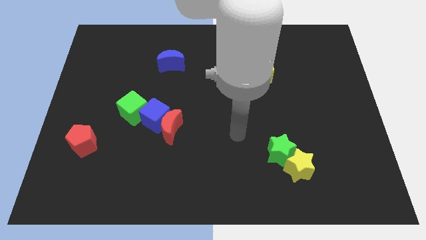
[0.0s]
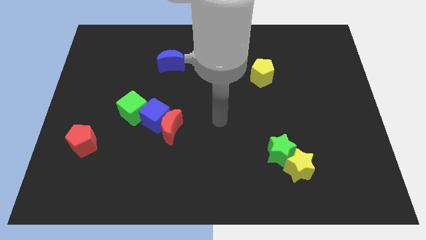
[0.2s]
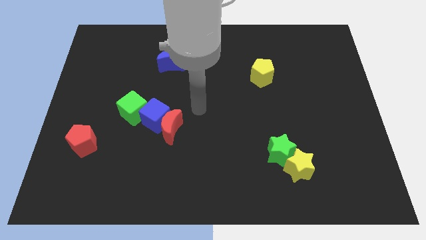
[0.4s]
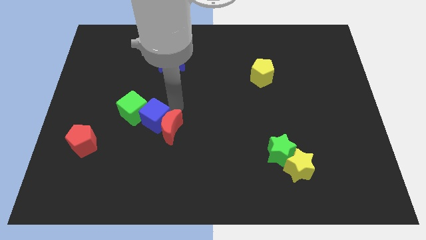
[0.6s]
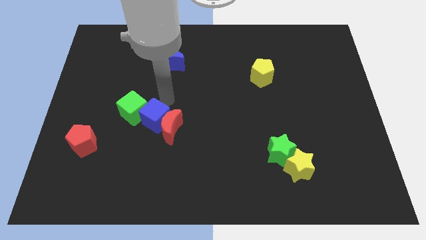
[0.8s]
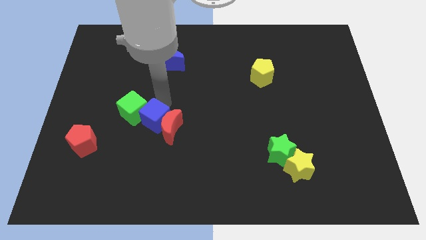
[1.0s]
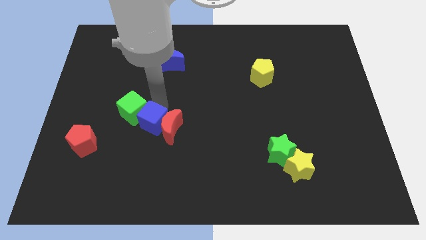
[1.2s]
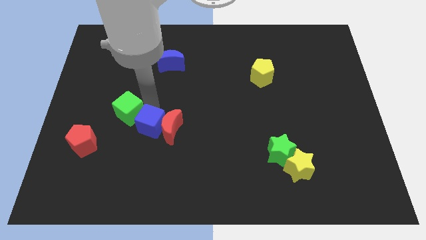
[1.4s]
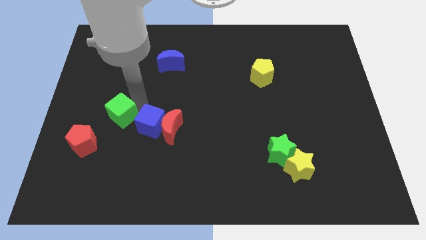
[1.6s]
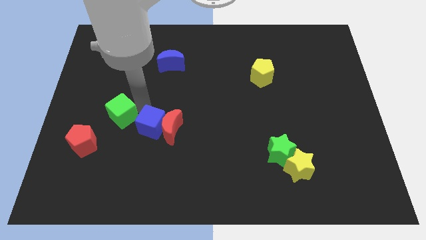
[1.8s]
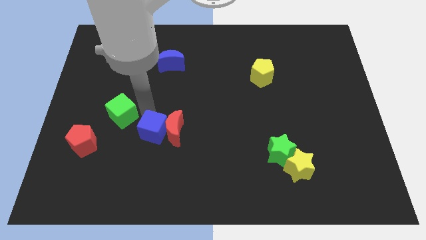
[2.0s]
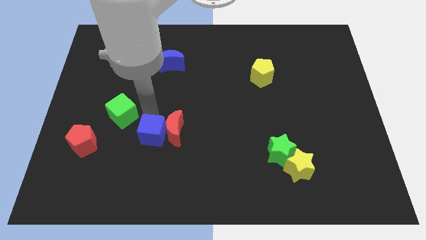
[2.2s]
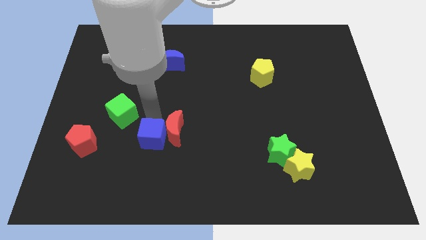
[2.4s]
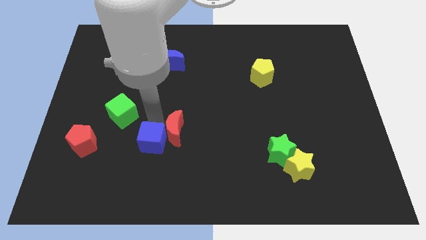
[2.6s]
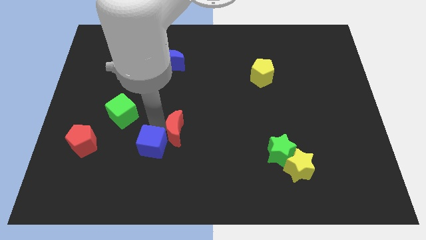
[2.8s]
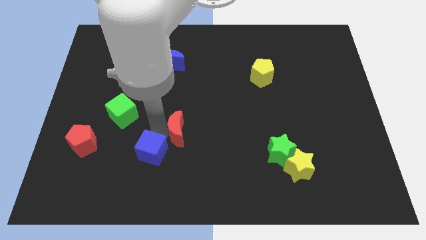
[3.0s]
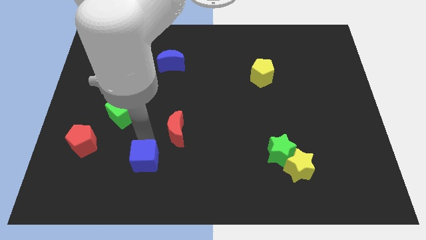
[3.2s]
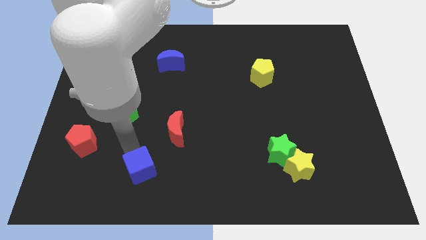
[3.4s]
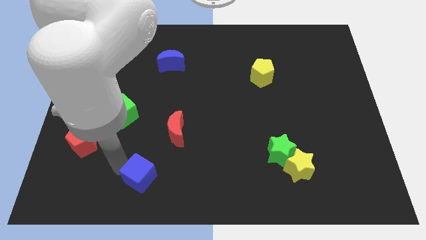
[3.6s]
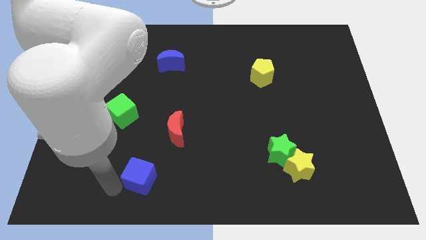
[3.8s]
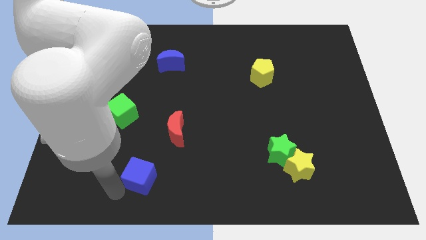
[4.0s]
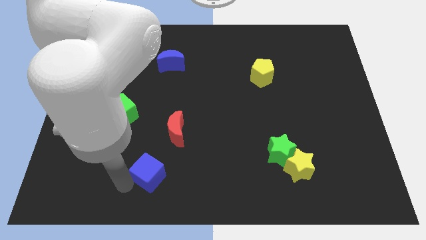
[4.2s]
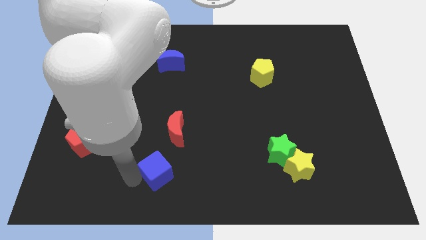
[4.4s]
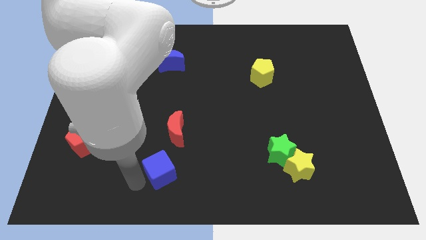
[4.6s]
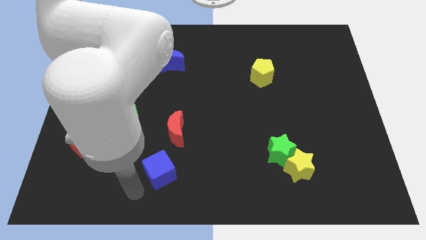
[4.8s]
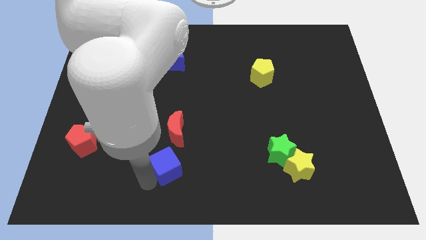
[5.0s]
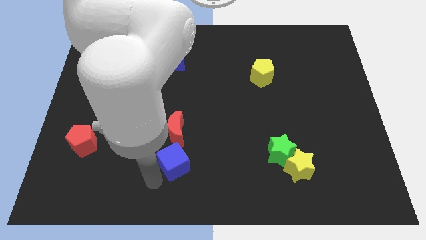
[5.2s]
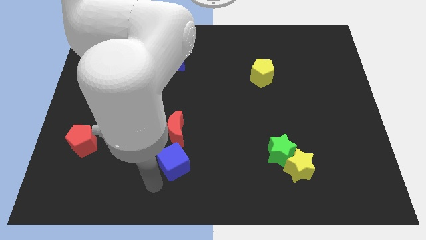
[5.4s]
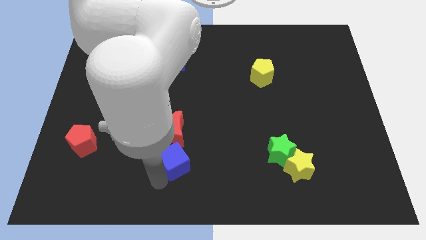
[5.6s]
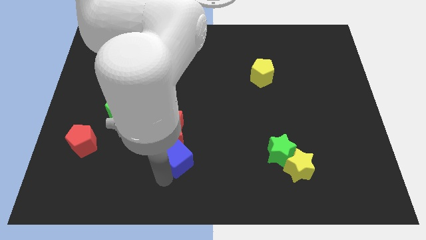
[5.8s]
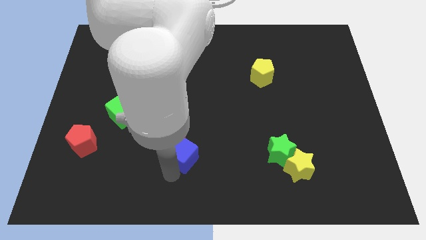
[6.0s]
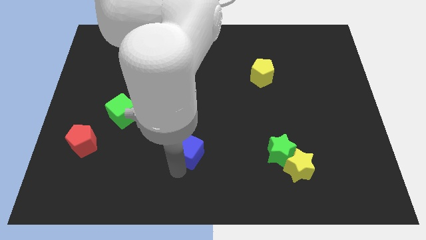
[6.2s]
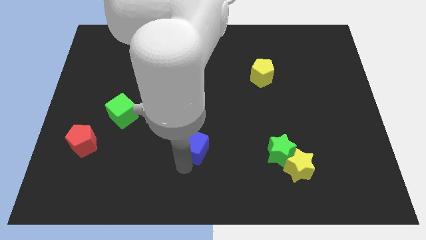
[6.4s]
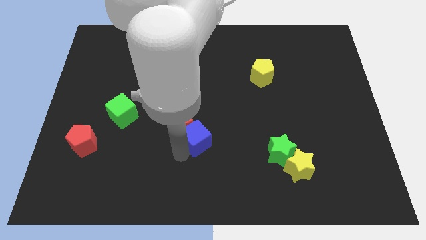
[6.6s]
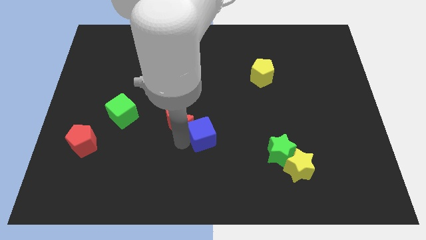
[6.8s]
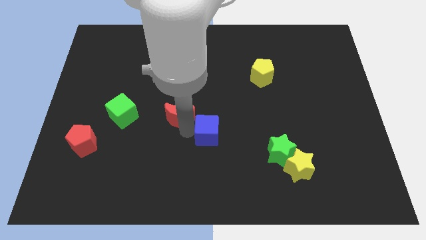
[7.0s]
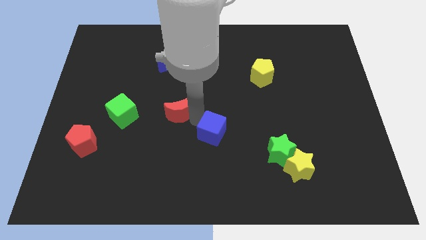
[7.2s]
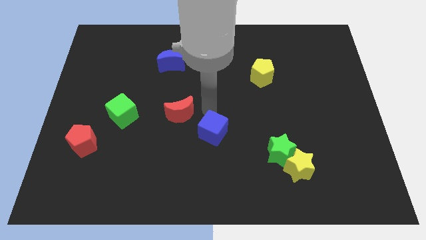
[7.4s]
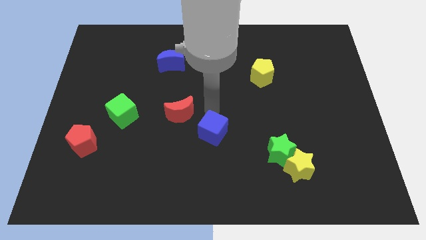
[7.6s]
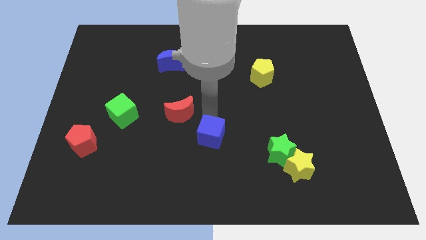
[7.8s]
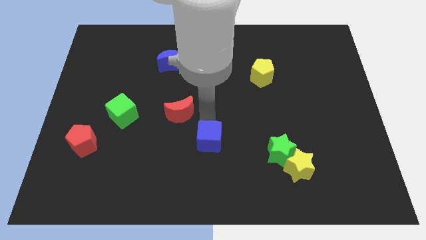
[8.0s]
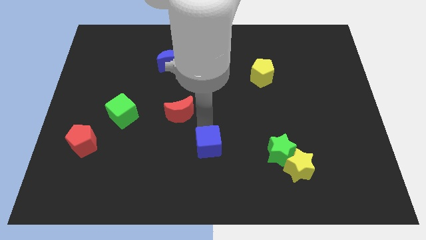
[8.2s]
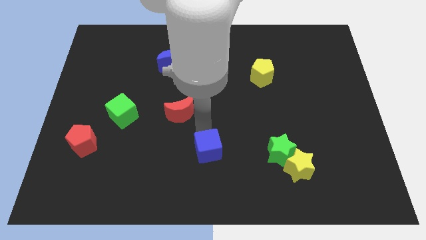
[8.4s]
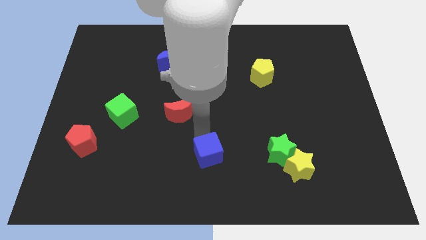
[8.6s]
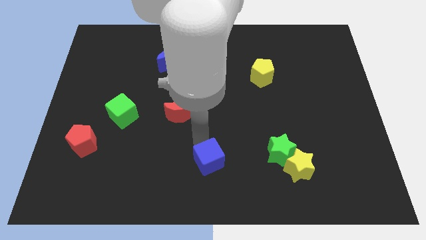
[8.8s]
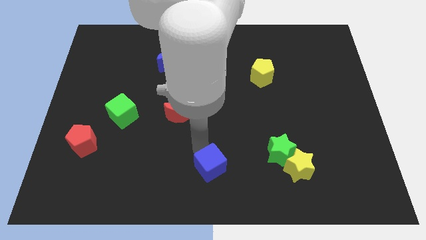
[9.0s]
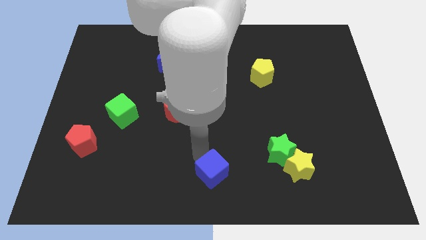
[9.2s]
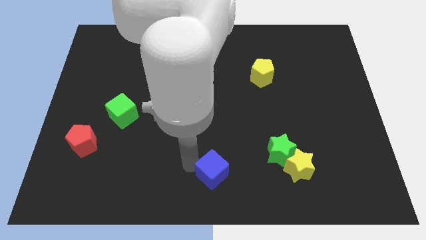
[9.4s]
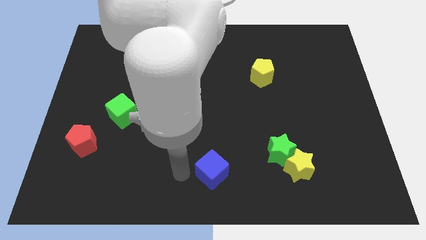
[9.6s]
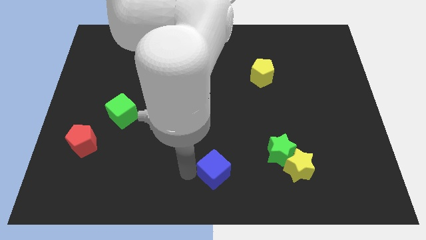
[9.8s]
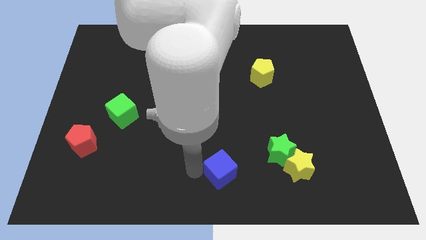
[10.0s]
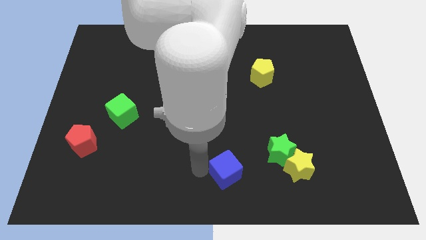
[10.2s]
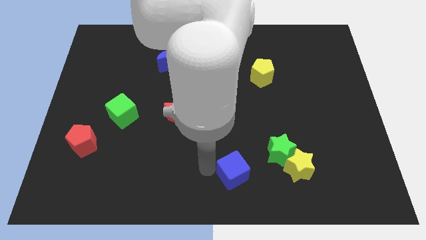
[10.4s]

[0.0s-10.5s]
push the blue cube to the bottom left of the green star

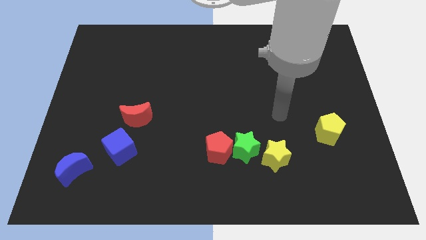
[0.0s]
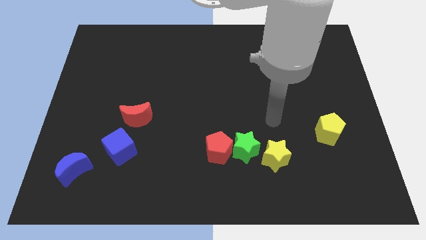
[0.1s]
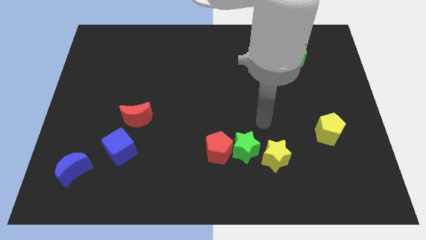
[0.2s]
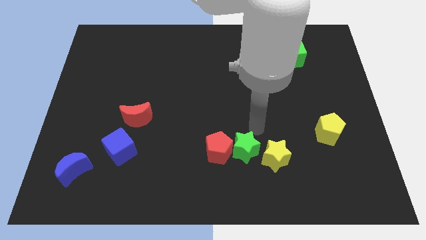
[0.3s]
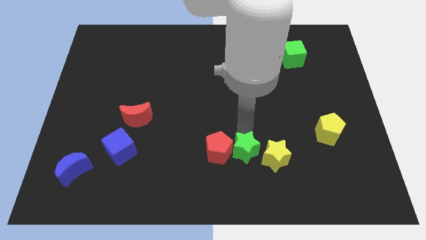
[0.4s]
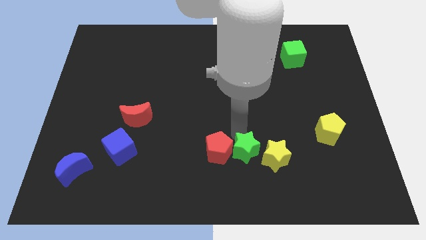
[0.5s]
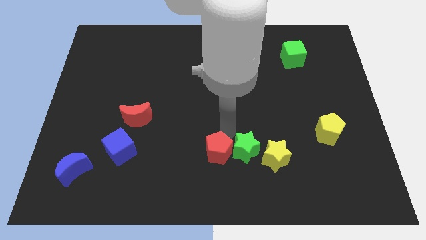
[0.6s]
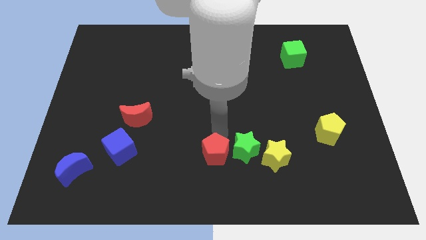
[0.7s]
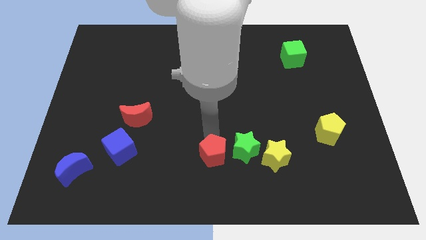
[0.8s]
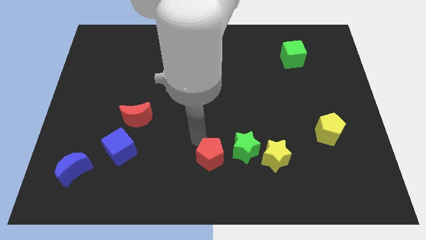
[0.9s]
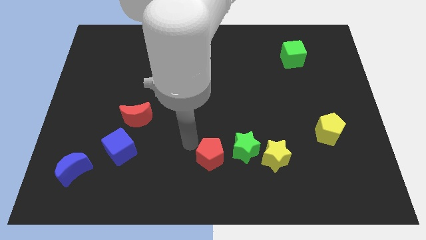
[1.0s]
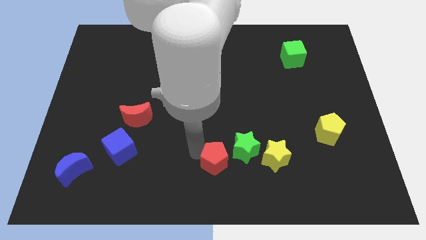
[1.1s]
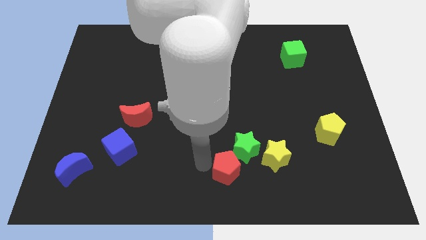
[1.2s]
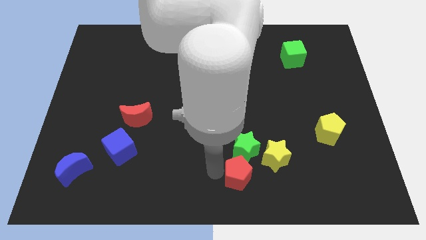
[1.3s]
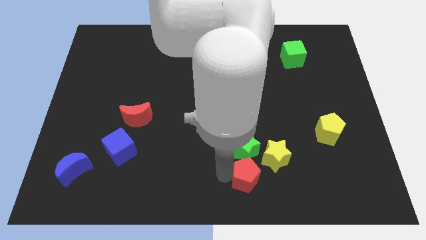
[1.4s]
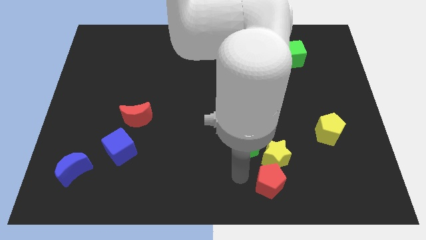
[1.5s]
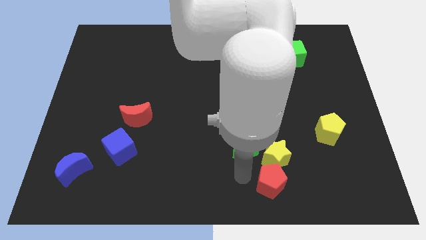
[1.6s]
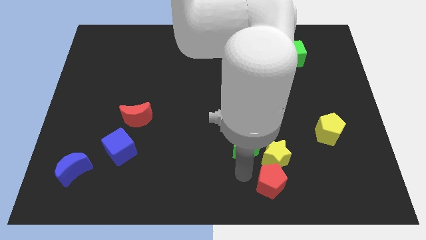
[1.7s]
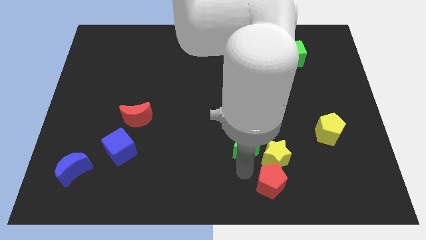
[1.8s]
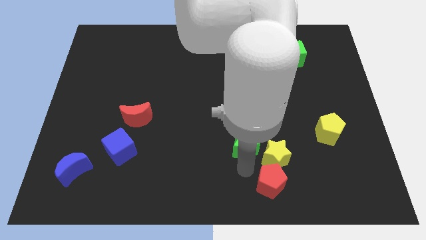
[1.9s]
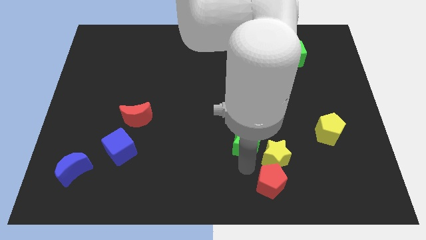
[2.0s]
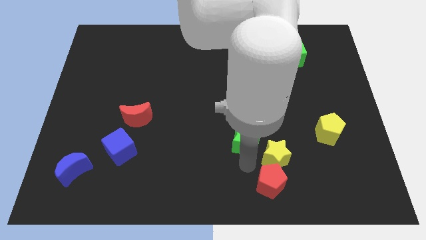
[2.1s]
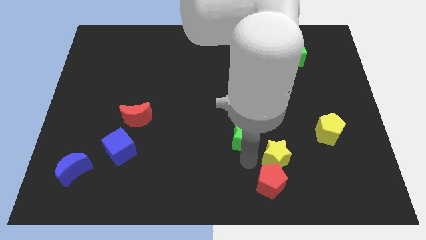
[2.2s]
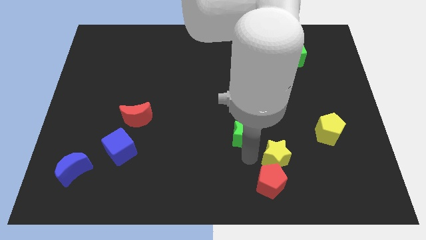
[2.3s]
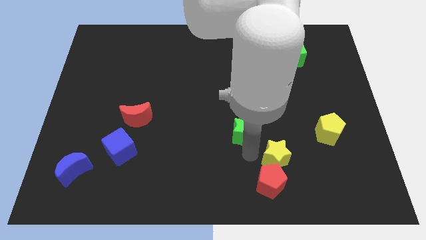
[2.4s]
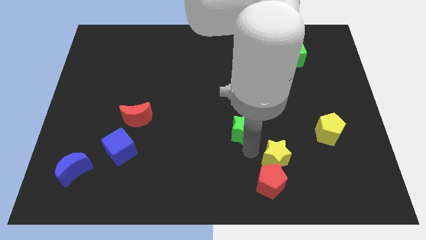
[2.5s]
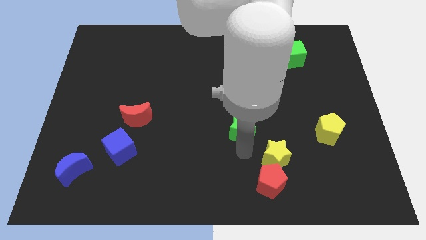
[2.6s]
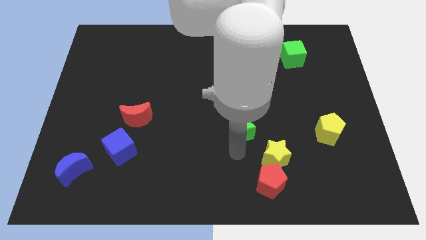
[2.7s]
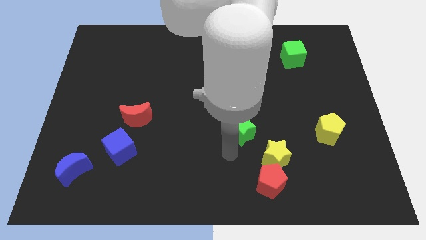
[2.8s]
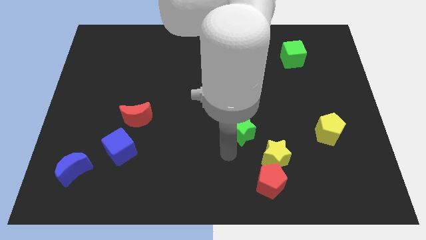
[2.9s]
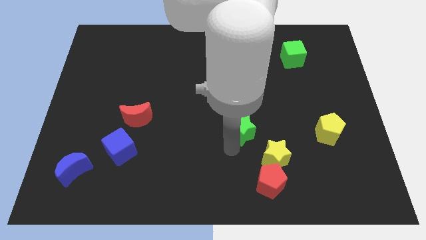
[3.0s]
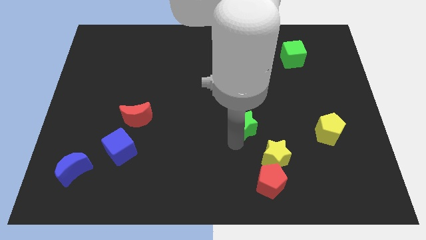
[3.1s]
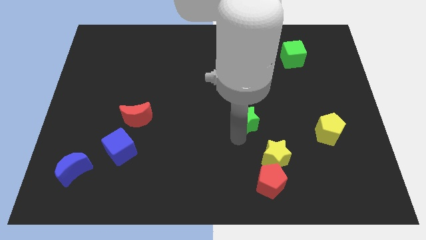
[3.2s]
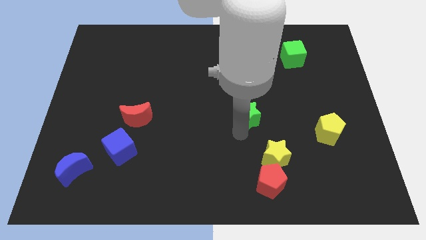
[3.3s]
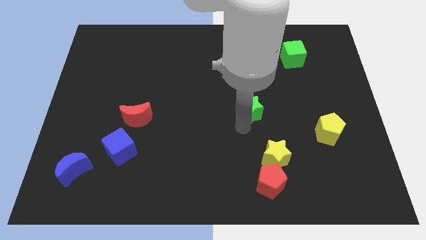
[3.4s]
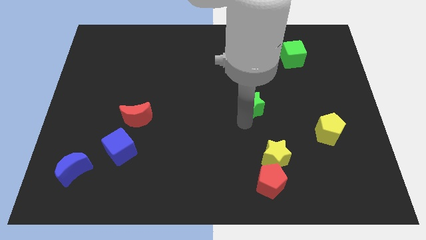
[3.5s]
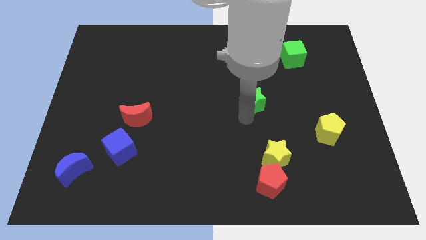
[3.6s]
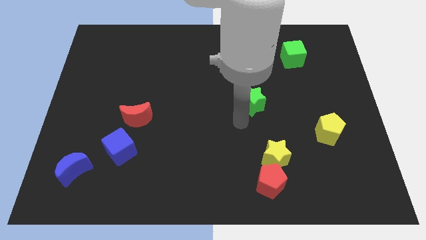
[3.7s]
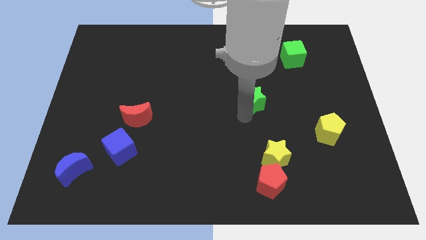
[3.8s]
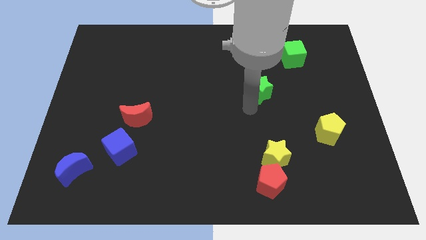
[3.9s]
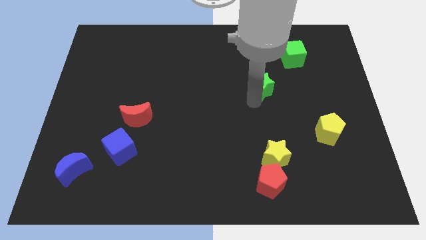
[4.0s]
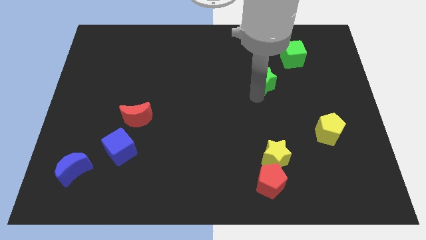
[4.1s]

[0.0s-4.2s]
push the green star to the bottom left of the green cube
